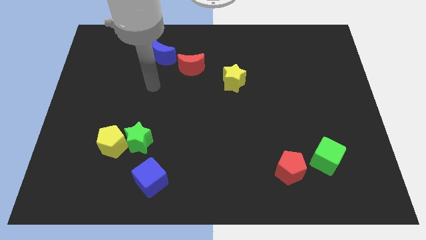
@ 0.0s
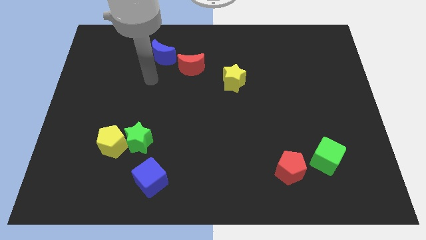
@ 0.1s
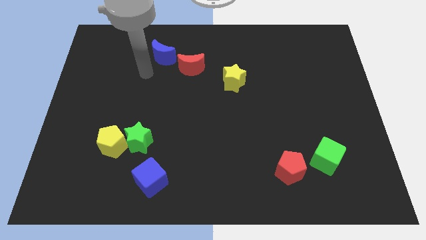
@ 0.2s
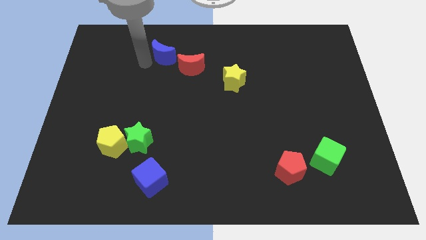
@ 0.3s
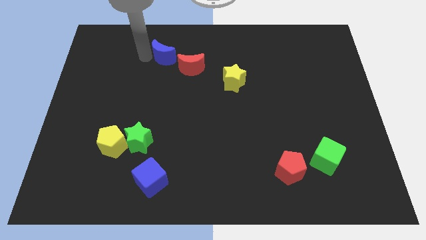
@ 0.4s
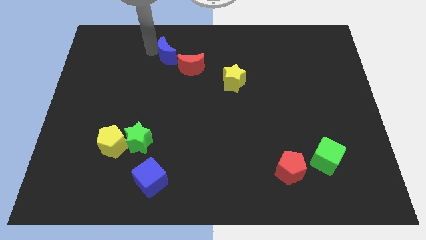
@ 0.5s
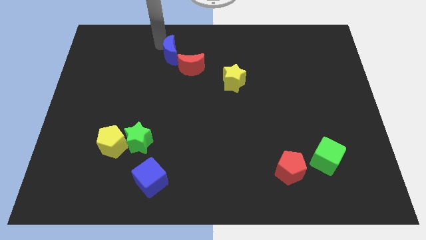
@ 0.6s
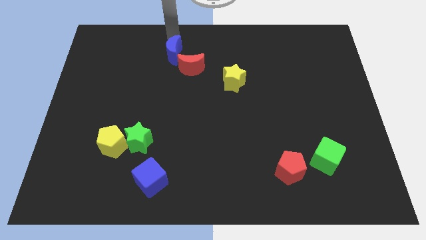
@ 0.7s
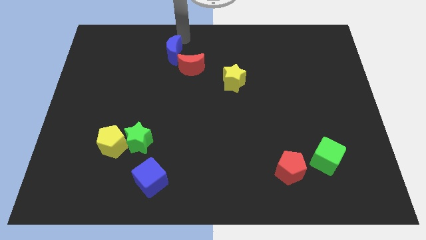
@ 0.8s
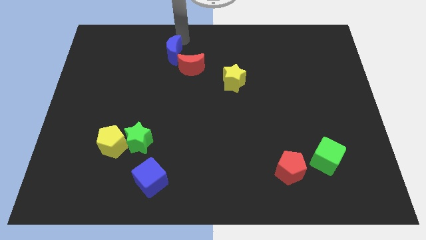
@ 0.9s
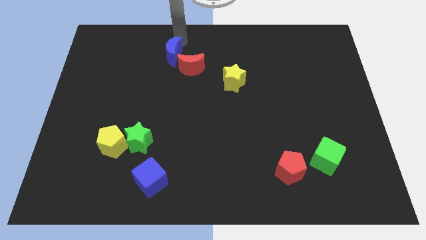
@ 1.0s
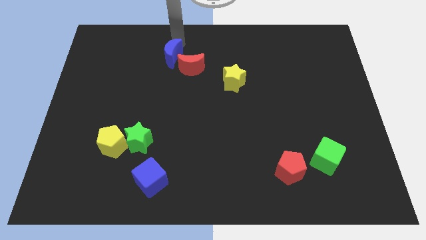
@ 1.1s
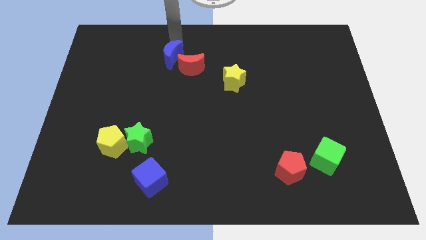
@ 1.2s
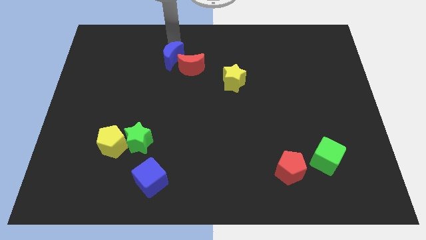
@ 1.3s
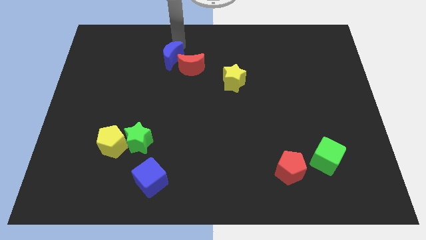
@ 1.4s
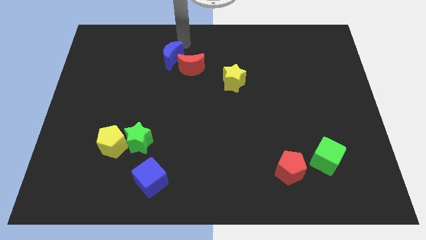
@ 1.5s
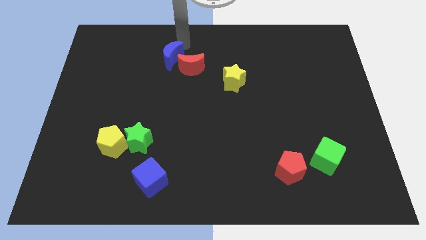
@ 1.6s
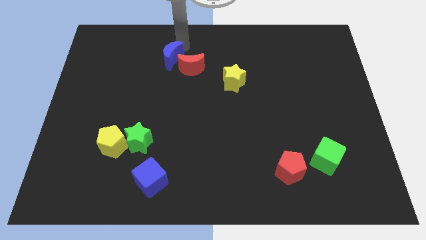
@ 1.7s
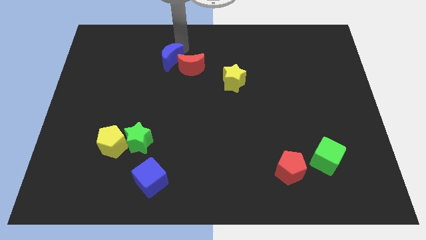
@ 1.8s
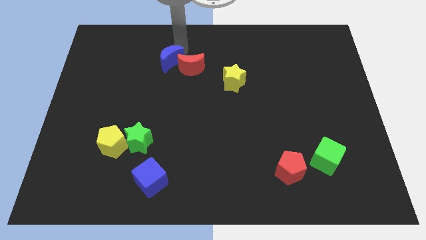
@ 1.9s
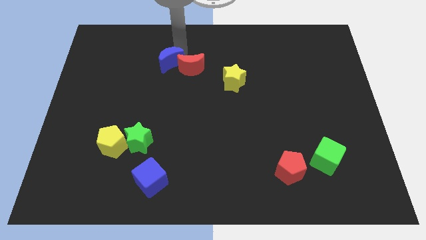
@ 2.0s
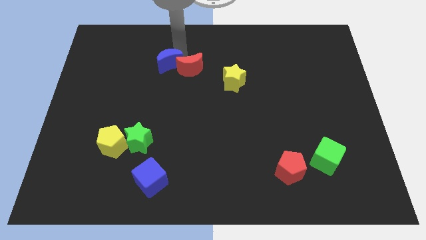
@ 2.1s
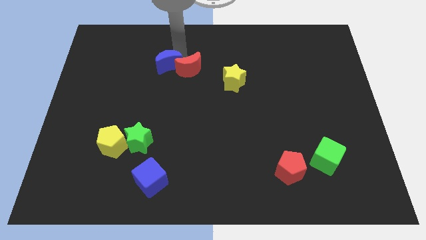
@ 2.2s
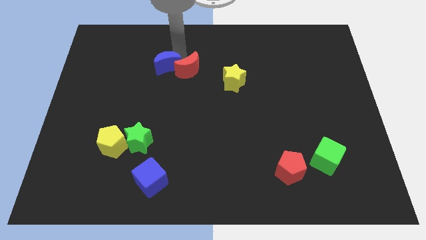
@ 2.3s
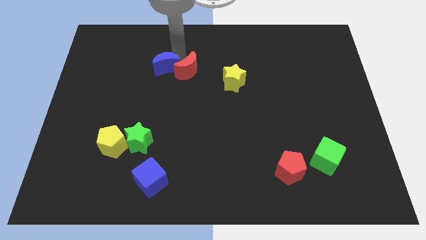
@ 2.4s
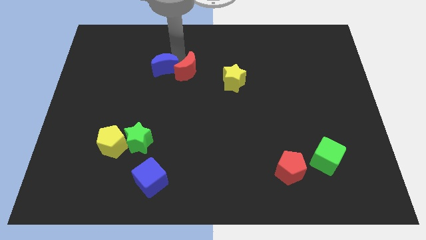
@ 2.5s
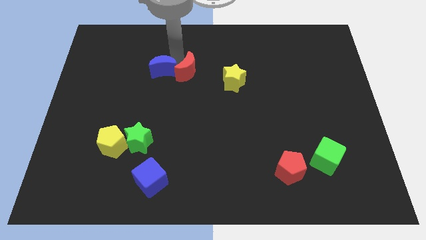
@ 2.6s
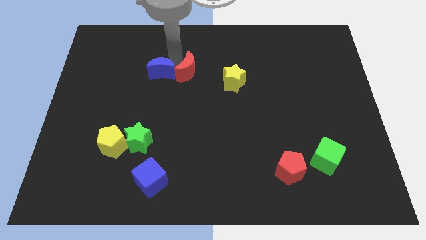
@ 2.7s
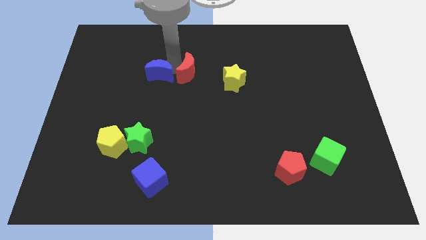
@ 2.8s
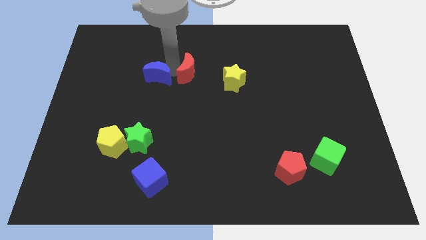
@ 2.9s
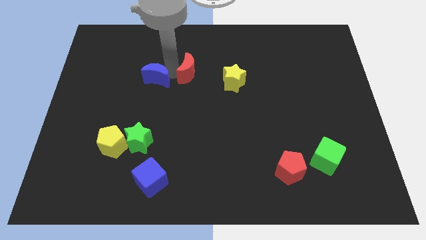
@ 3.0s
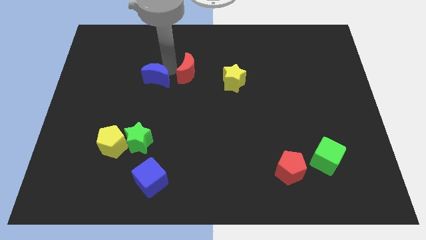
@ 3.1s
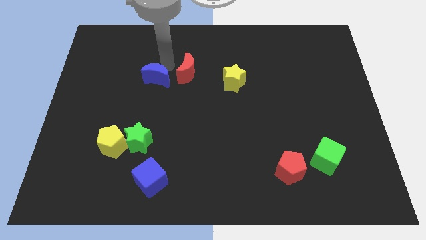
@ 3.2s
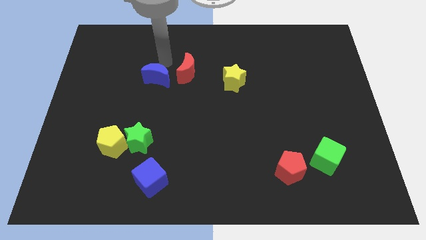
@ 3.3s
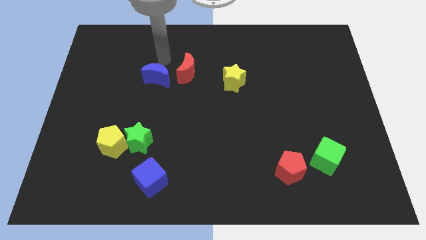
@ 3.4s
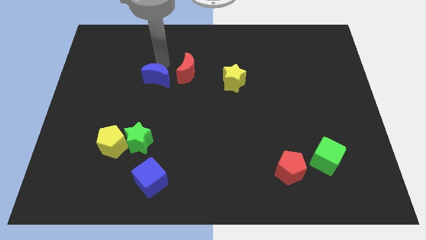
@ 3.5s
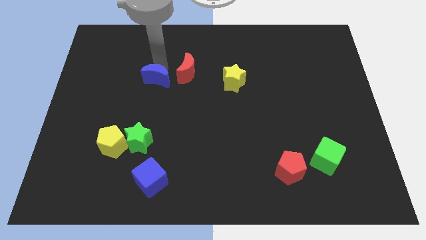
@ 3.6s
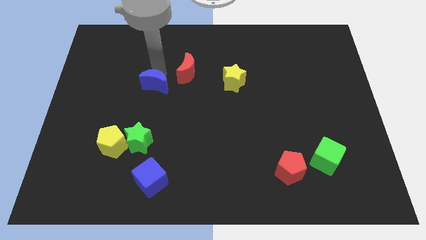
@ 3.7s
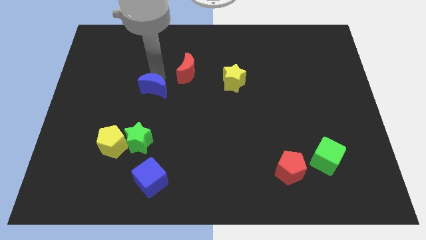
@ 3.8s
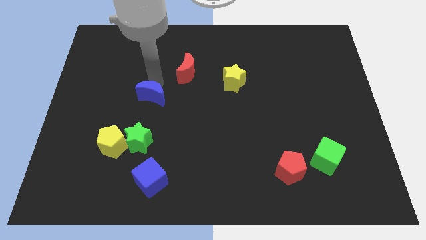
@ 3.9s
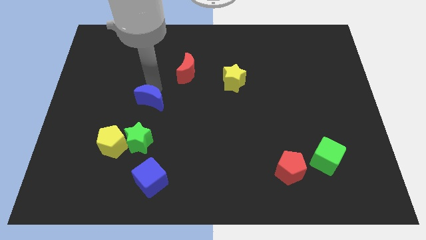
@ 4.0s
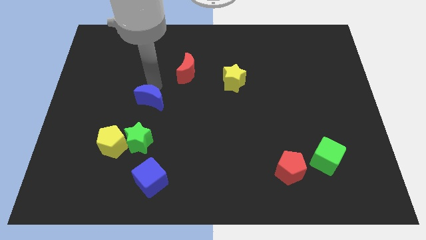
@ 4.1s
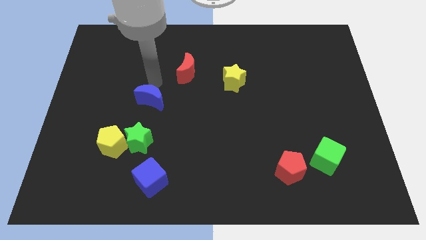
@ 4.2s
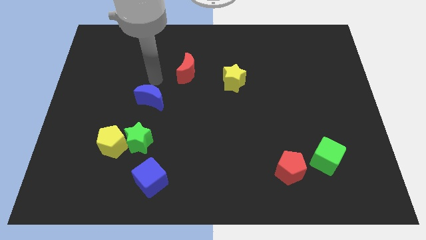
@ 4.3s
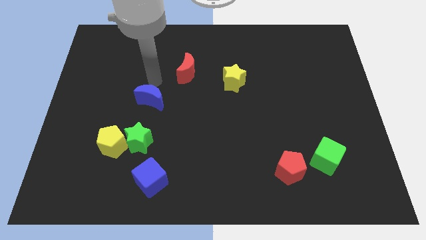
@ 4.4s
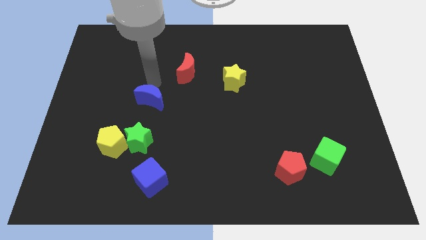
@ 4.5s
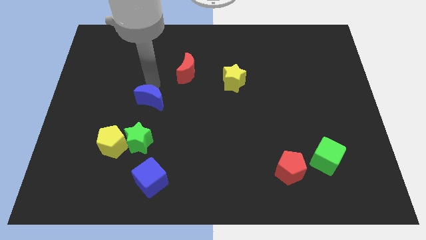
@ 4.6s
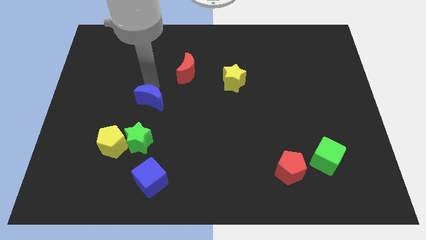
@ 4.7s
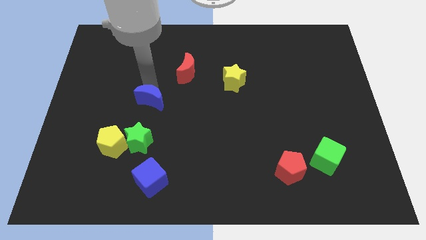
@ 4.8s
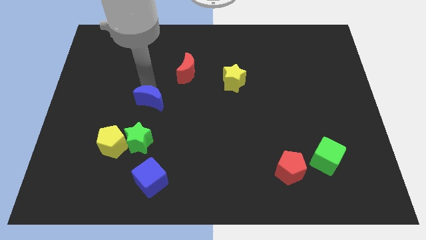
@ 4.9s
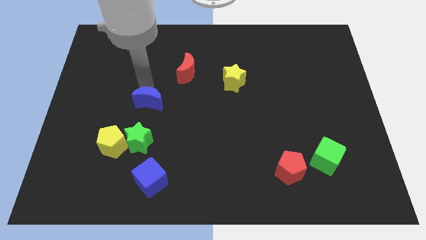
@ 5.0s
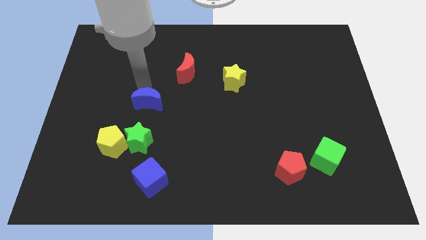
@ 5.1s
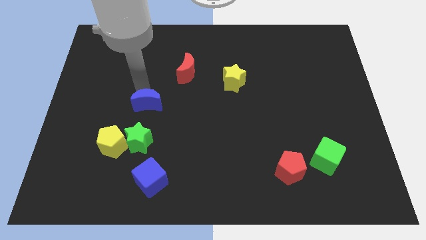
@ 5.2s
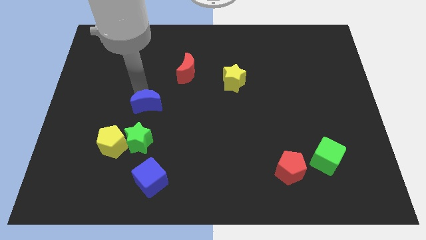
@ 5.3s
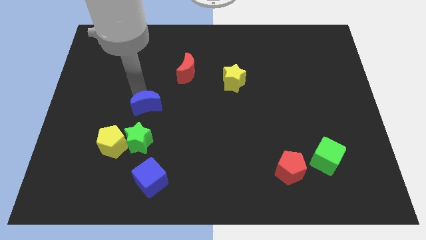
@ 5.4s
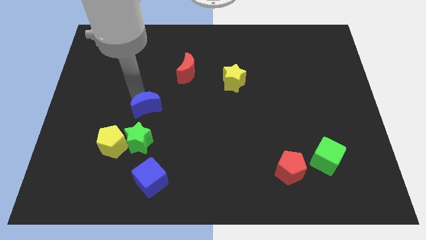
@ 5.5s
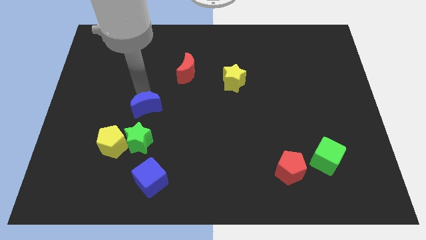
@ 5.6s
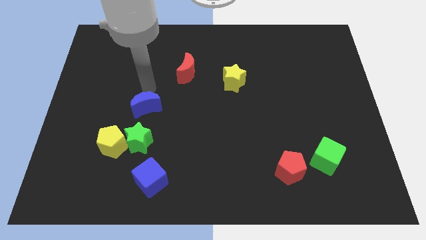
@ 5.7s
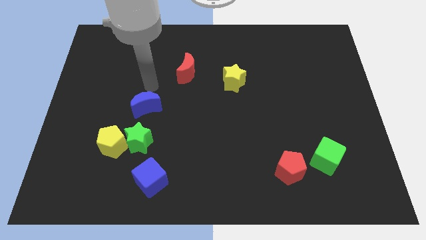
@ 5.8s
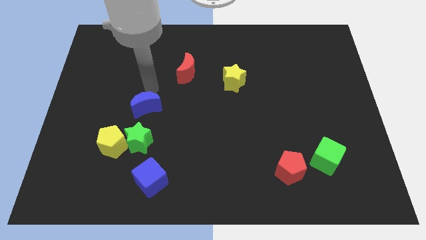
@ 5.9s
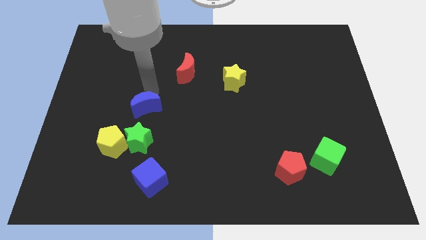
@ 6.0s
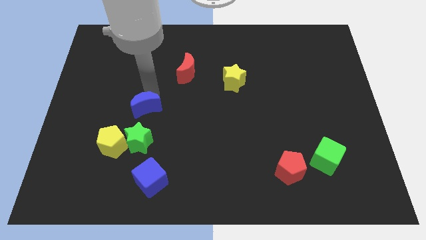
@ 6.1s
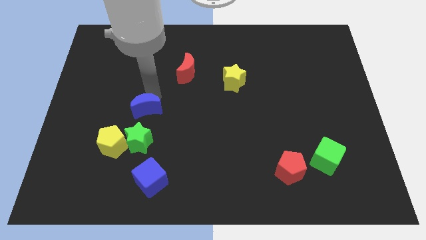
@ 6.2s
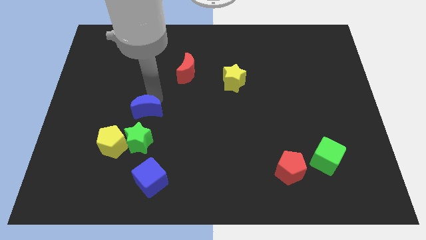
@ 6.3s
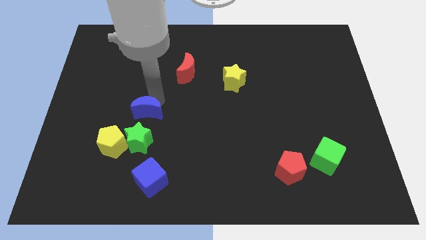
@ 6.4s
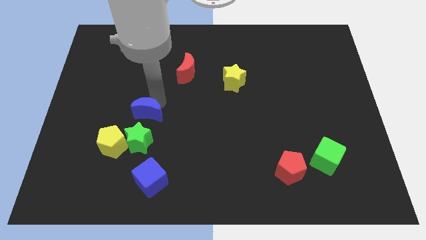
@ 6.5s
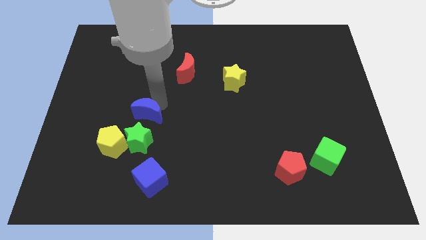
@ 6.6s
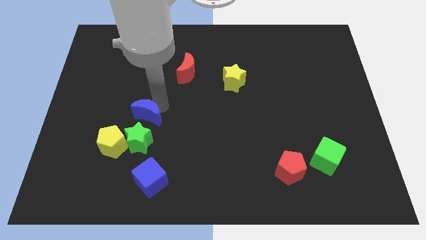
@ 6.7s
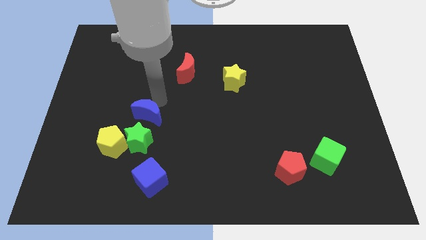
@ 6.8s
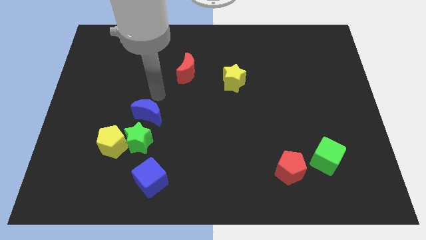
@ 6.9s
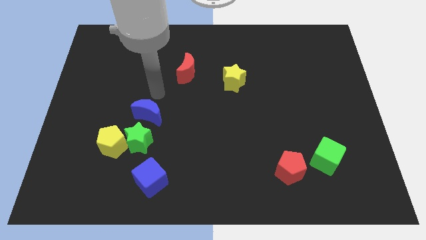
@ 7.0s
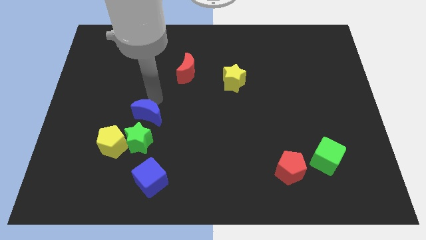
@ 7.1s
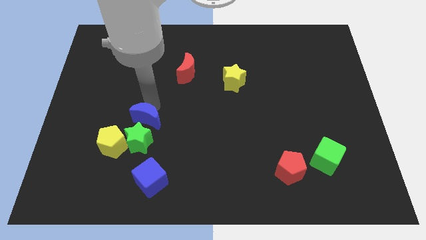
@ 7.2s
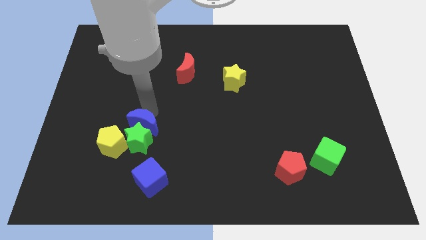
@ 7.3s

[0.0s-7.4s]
slide the blue moon close to the green star
